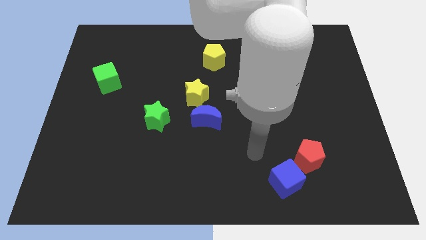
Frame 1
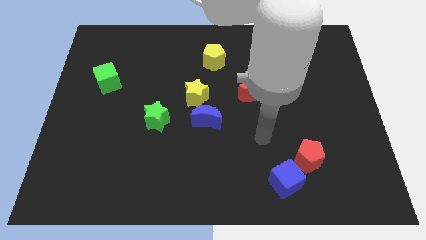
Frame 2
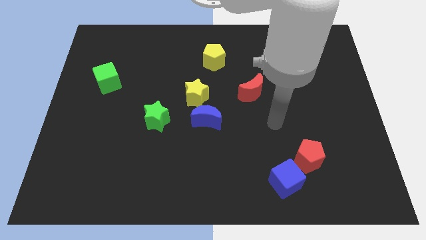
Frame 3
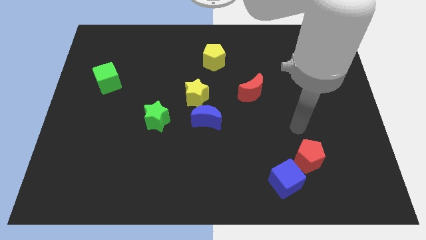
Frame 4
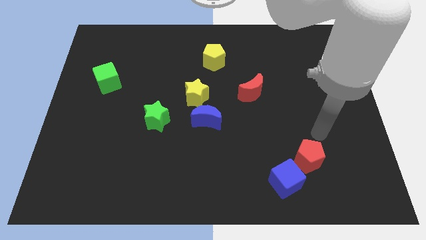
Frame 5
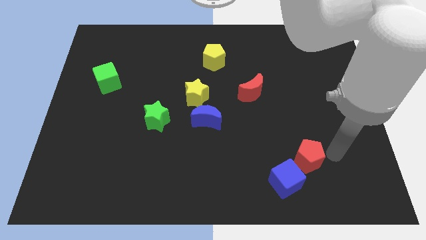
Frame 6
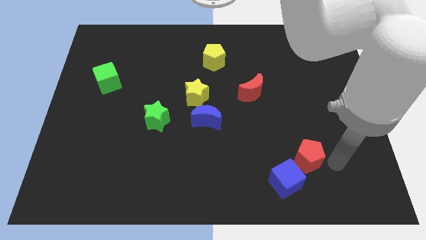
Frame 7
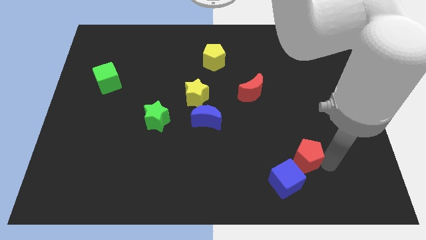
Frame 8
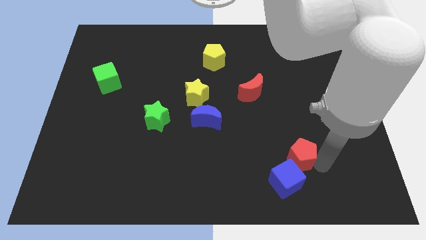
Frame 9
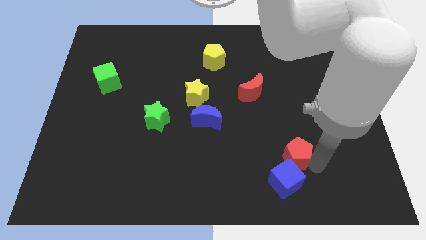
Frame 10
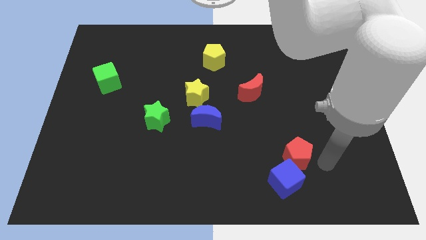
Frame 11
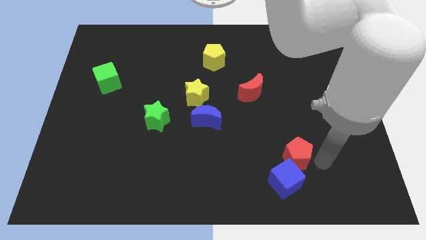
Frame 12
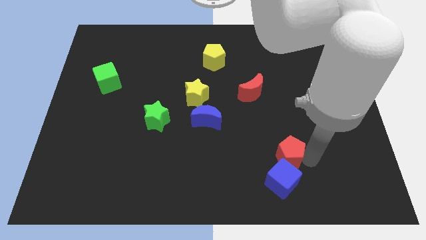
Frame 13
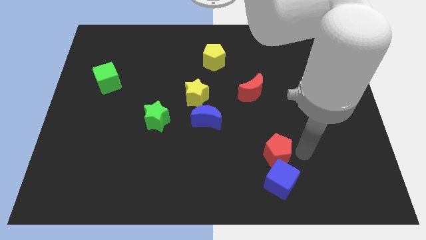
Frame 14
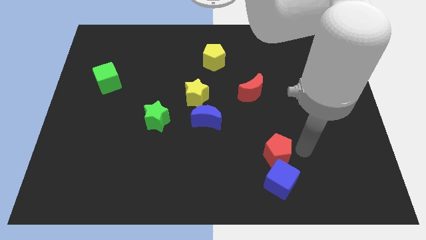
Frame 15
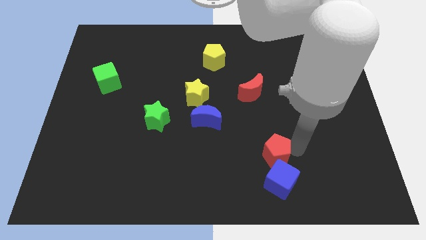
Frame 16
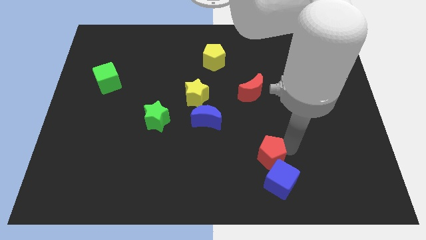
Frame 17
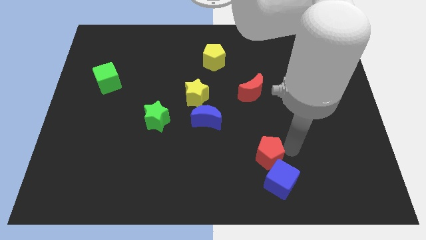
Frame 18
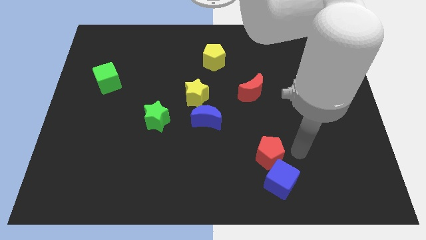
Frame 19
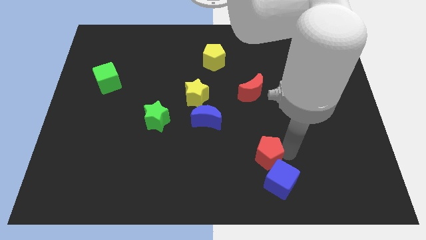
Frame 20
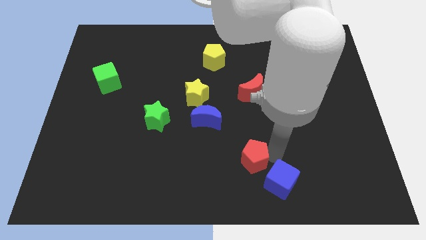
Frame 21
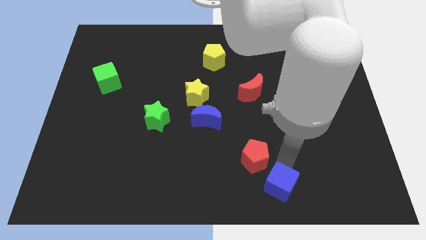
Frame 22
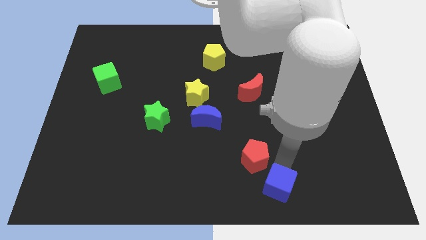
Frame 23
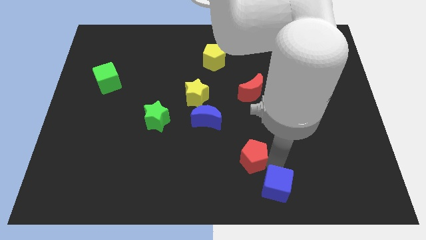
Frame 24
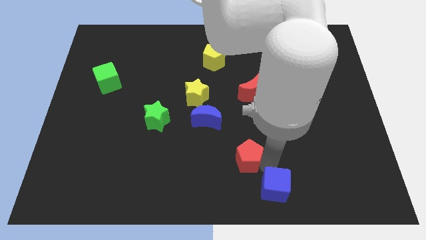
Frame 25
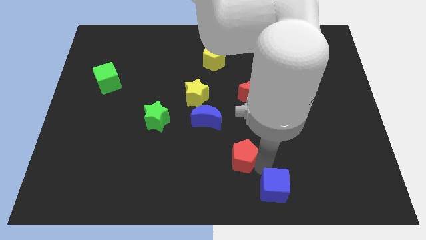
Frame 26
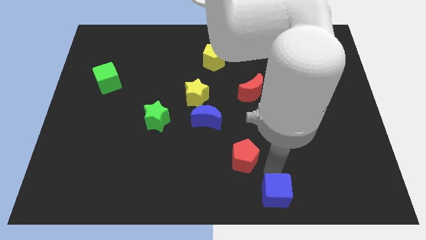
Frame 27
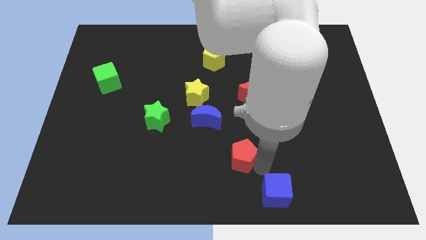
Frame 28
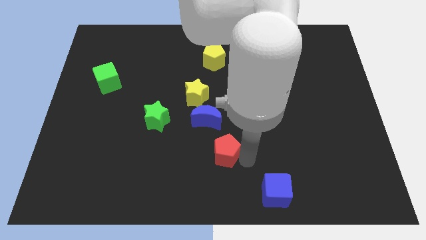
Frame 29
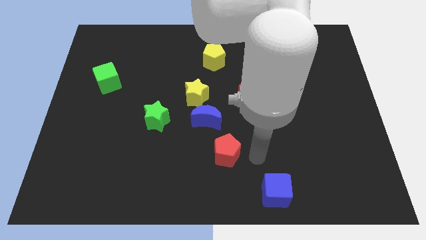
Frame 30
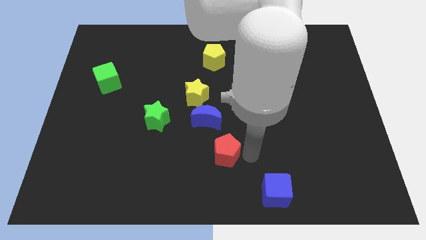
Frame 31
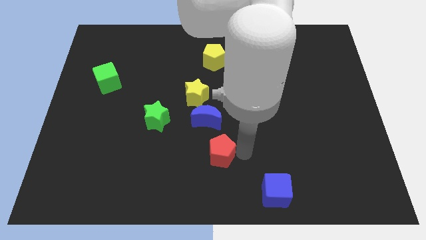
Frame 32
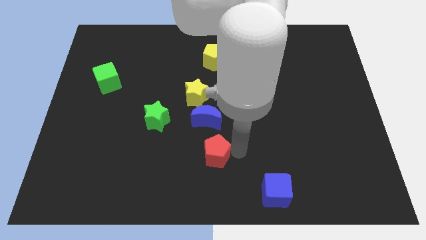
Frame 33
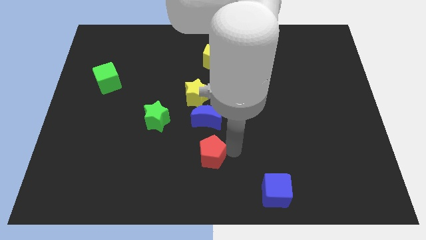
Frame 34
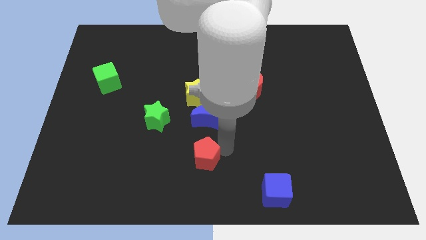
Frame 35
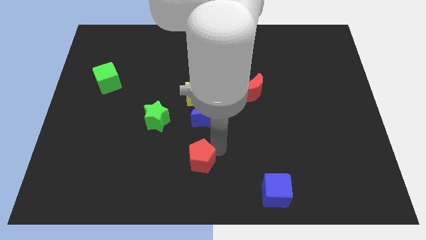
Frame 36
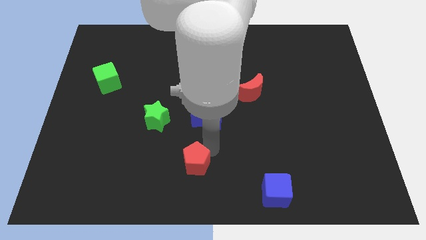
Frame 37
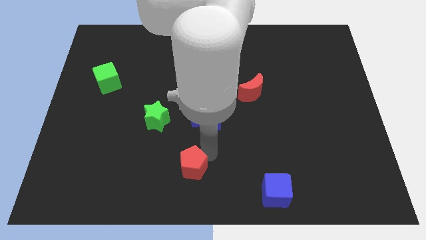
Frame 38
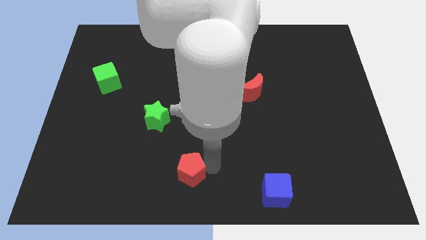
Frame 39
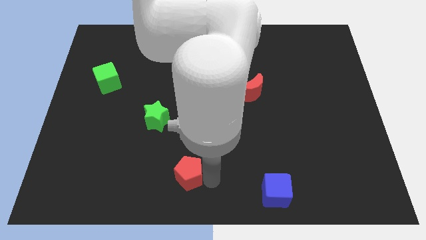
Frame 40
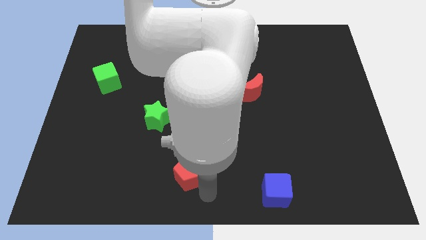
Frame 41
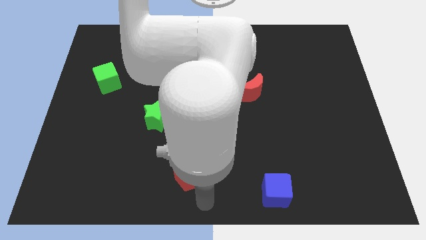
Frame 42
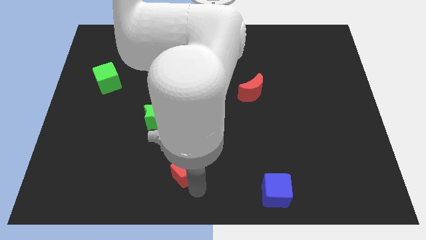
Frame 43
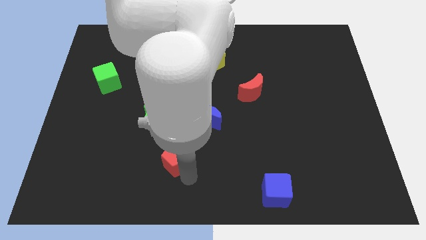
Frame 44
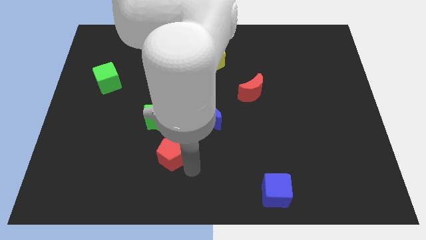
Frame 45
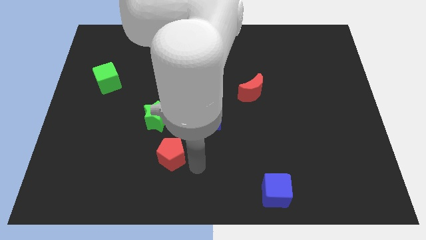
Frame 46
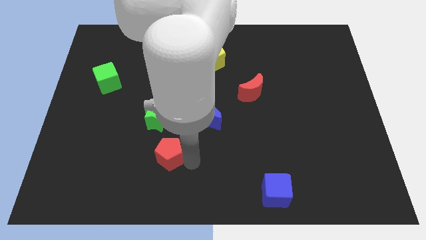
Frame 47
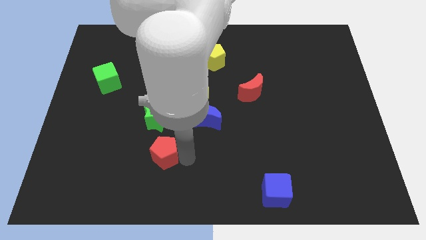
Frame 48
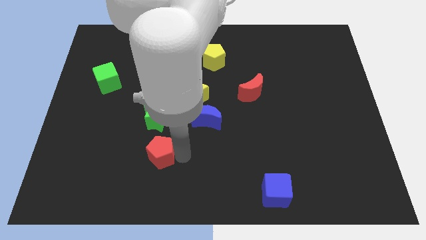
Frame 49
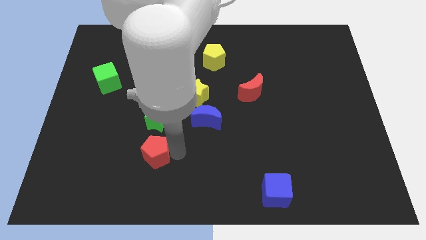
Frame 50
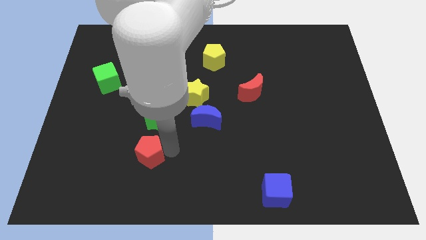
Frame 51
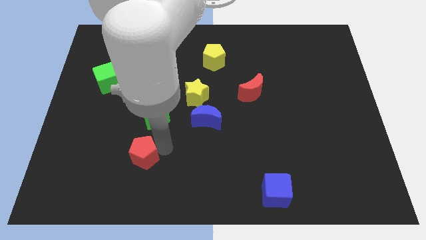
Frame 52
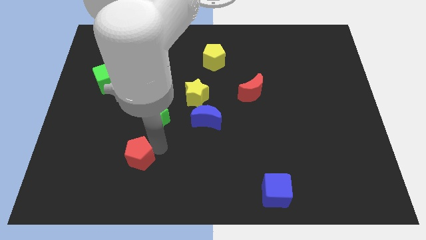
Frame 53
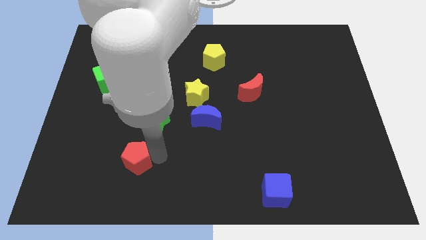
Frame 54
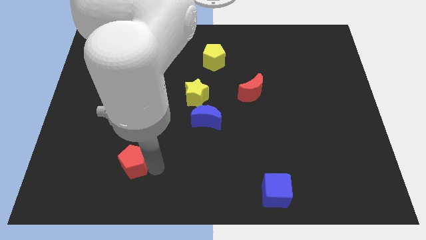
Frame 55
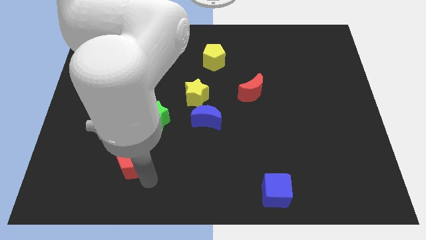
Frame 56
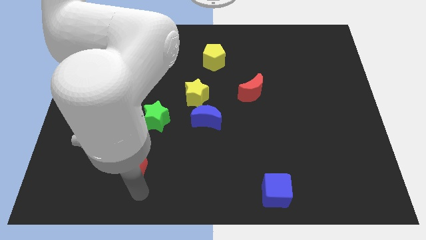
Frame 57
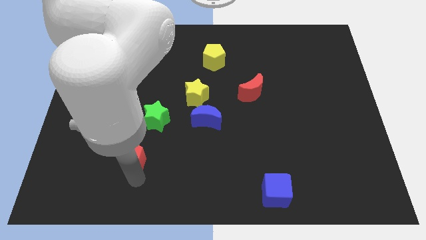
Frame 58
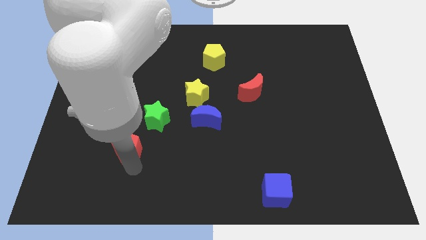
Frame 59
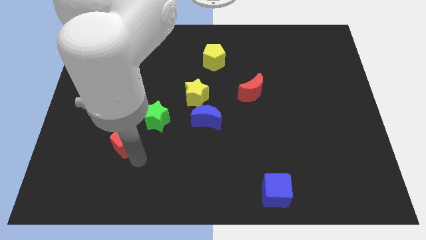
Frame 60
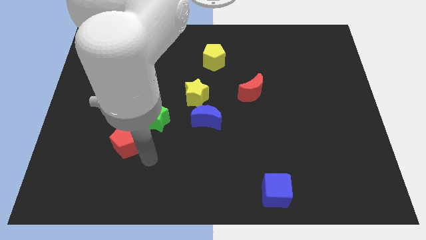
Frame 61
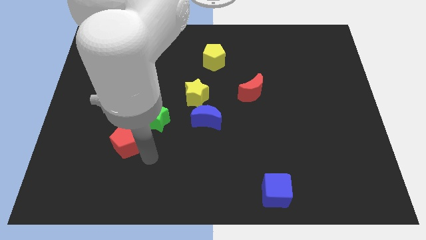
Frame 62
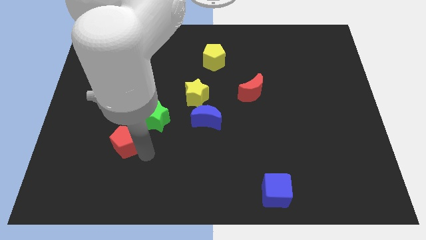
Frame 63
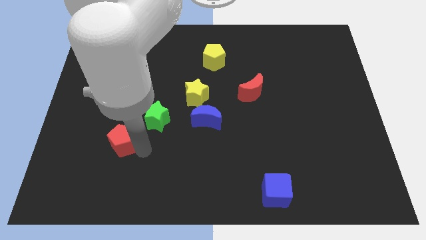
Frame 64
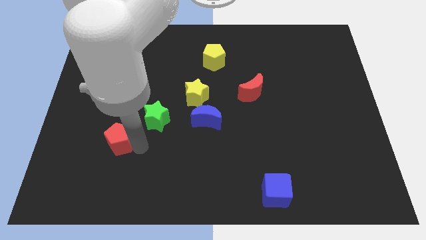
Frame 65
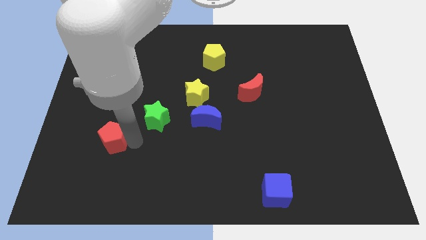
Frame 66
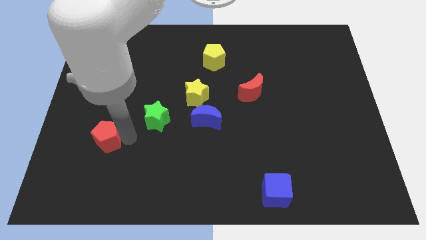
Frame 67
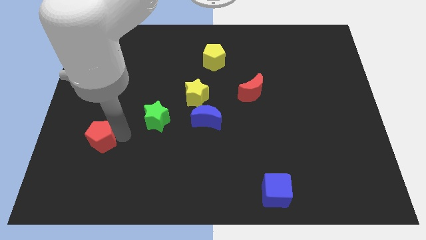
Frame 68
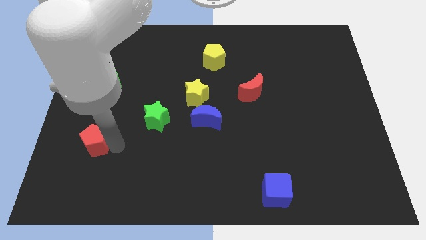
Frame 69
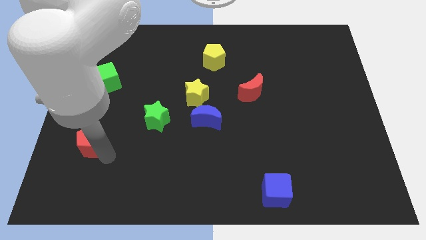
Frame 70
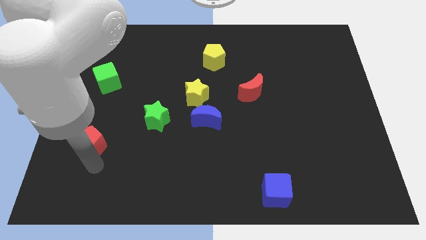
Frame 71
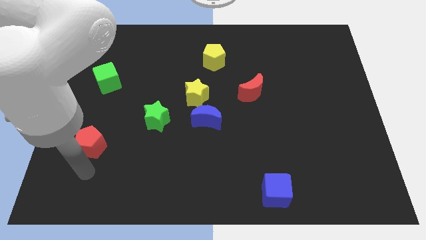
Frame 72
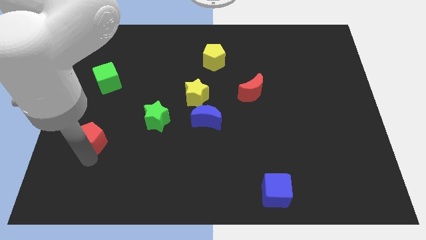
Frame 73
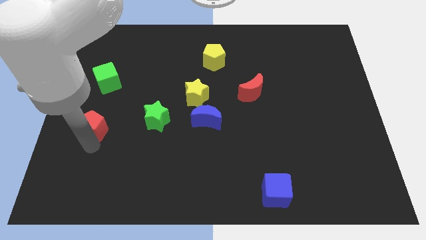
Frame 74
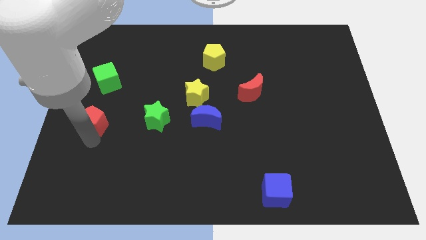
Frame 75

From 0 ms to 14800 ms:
slide the red pentagon to the left side
